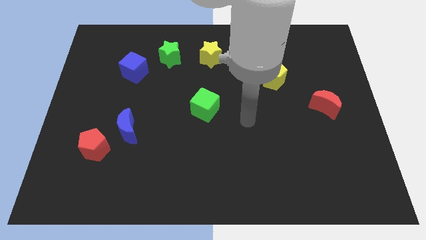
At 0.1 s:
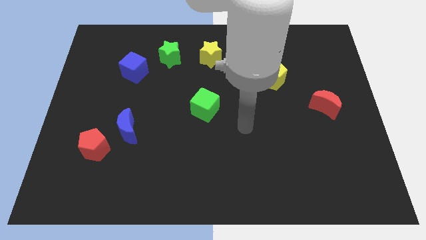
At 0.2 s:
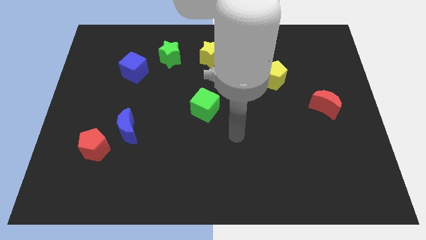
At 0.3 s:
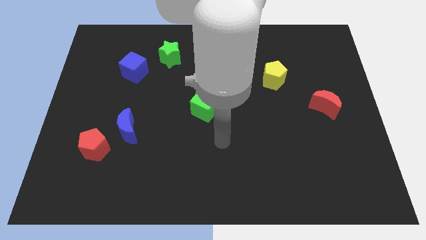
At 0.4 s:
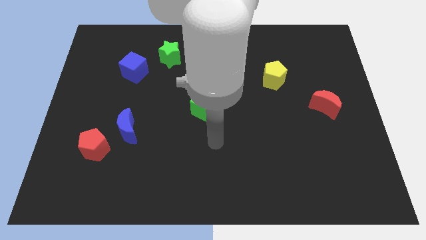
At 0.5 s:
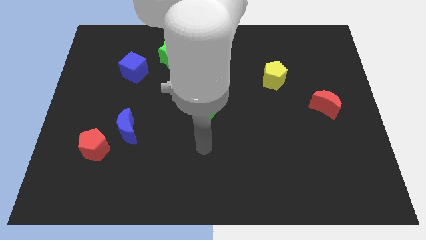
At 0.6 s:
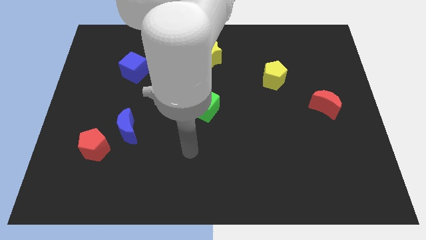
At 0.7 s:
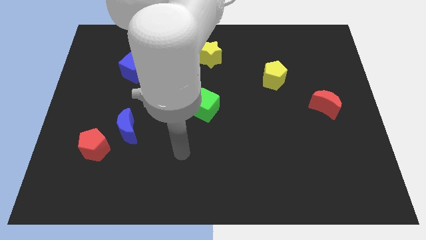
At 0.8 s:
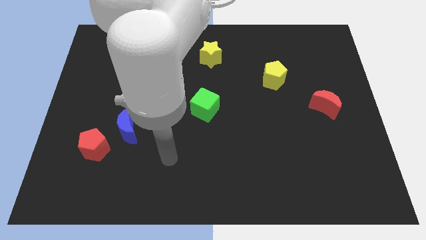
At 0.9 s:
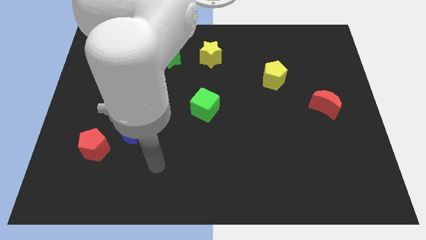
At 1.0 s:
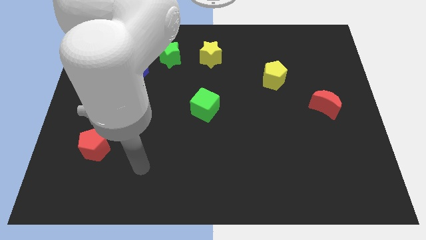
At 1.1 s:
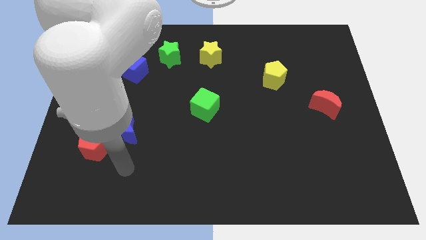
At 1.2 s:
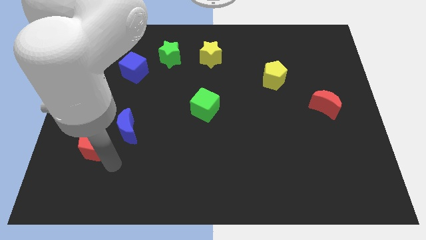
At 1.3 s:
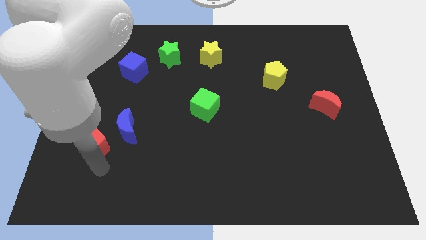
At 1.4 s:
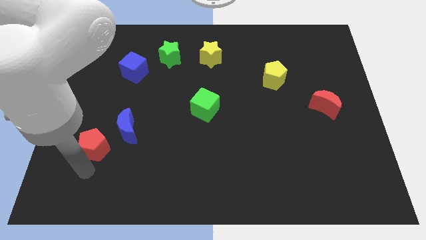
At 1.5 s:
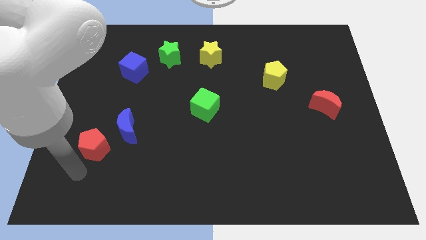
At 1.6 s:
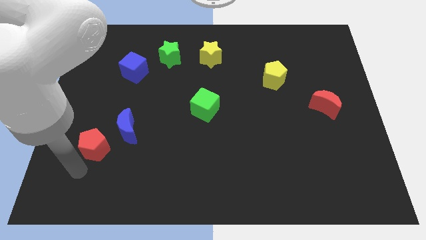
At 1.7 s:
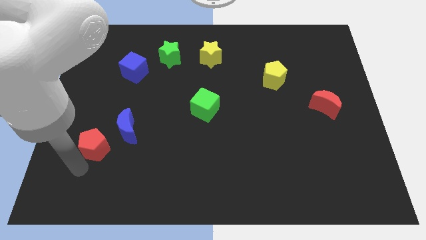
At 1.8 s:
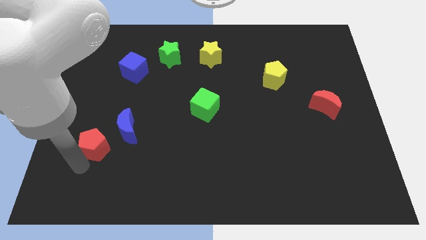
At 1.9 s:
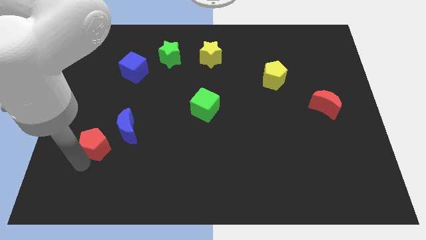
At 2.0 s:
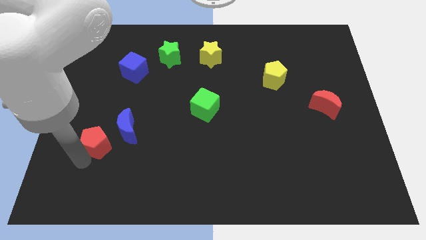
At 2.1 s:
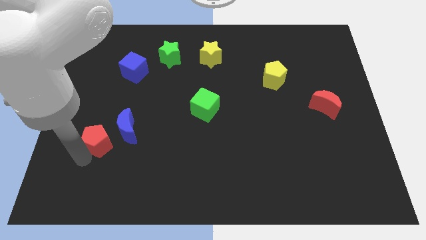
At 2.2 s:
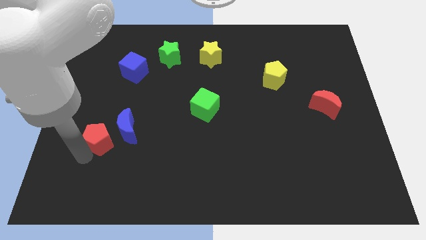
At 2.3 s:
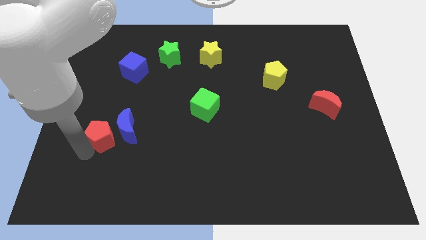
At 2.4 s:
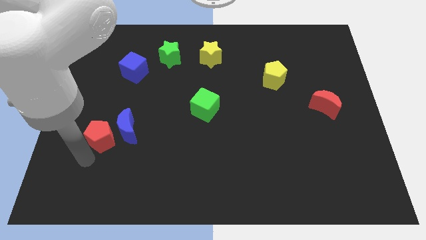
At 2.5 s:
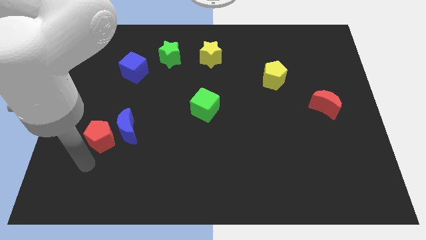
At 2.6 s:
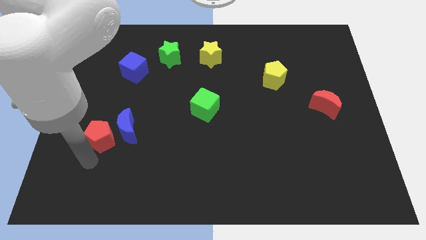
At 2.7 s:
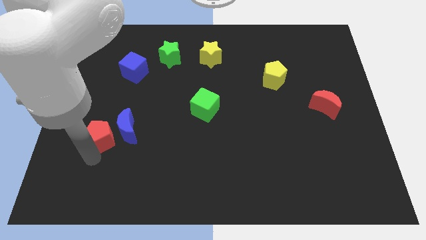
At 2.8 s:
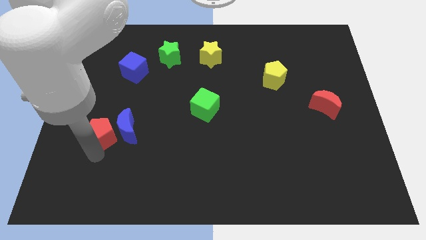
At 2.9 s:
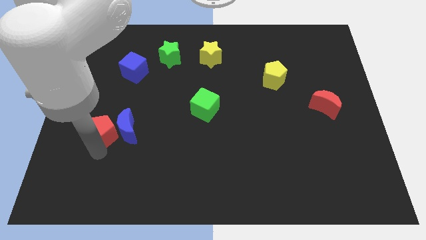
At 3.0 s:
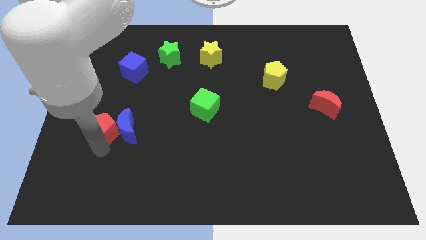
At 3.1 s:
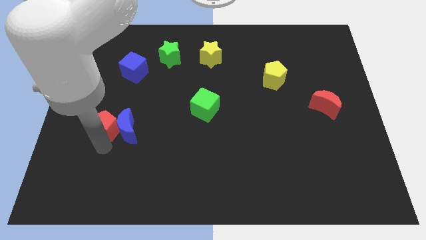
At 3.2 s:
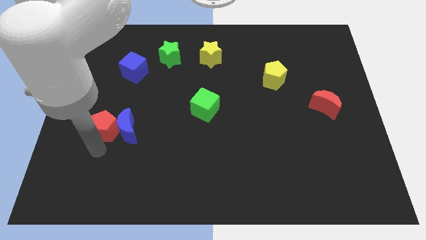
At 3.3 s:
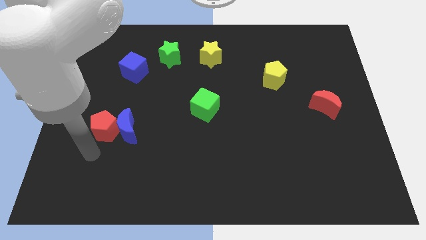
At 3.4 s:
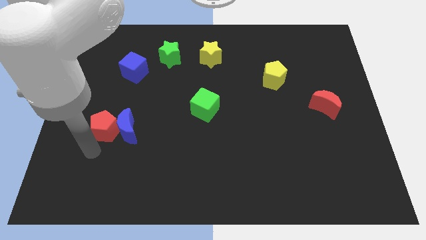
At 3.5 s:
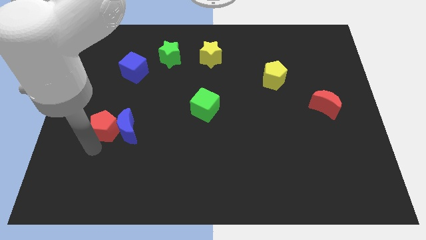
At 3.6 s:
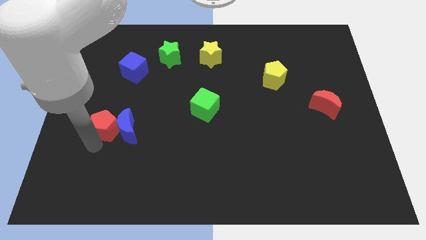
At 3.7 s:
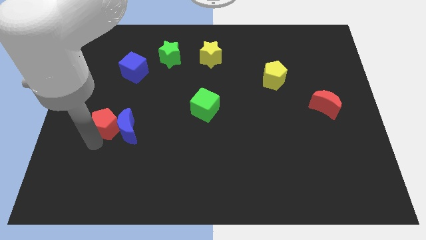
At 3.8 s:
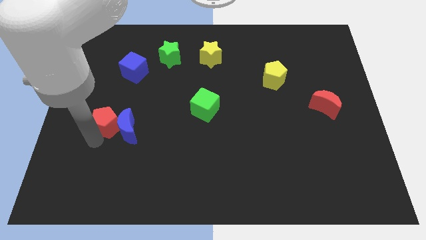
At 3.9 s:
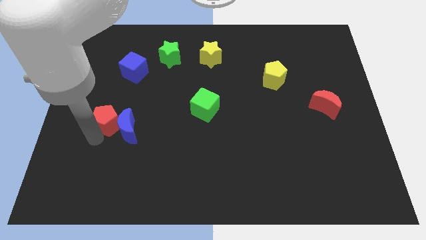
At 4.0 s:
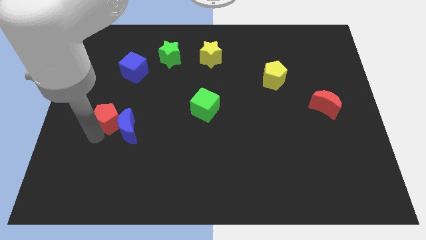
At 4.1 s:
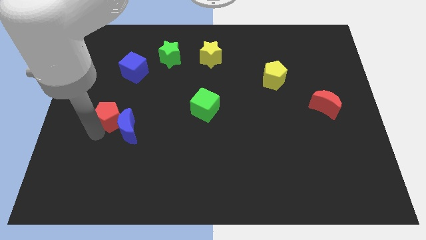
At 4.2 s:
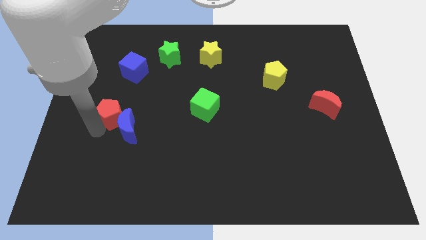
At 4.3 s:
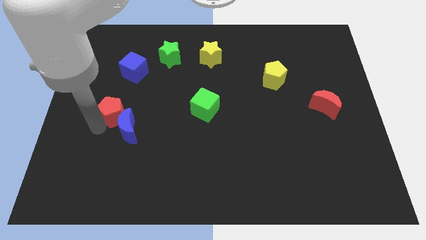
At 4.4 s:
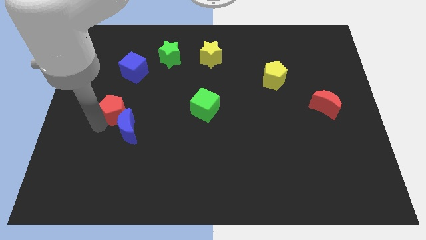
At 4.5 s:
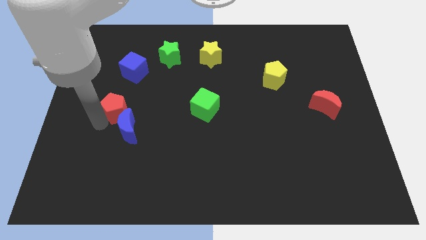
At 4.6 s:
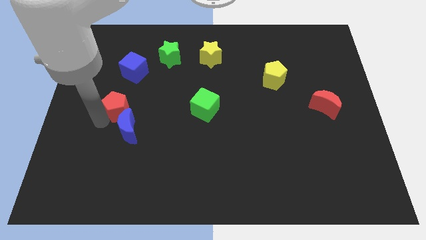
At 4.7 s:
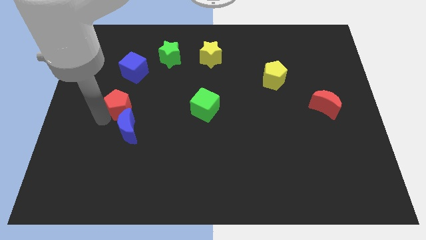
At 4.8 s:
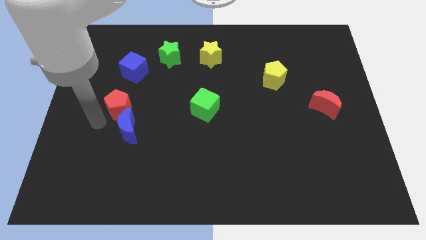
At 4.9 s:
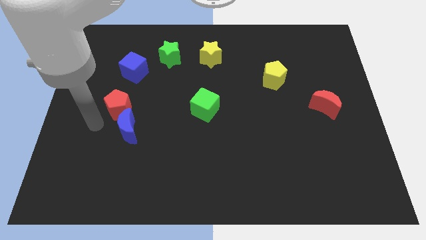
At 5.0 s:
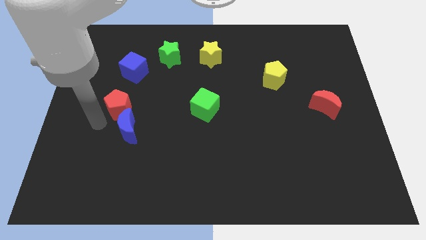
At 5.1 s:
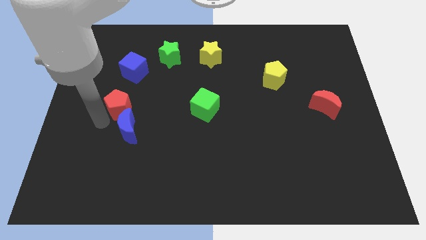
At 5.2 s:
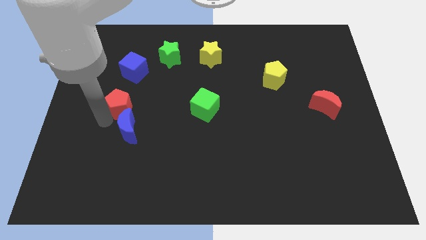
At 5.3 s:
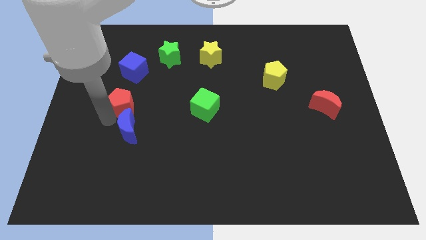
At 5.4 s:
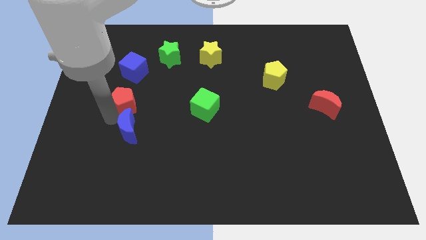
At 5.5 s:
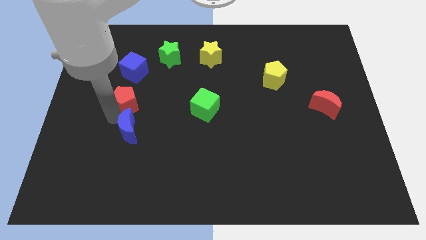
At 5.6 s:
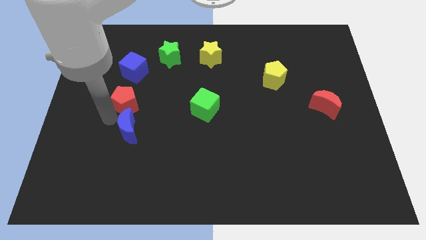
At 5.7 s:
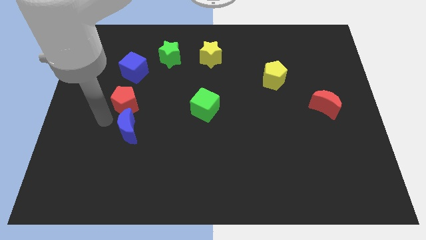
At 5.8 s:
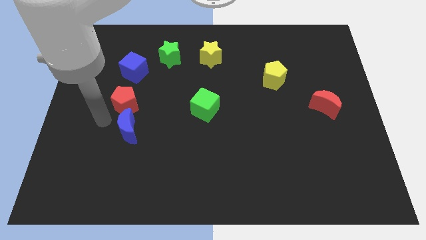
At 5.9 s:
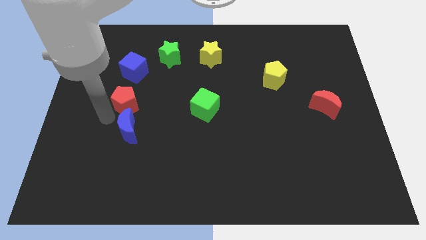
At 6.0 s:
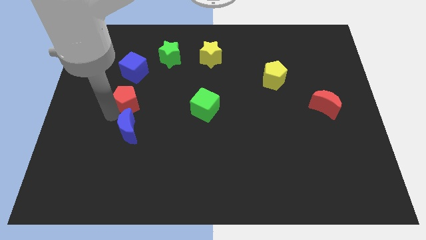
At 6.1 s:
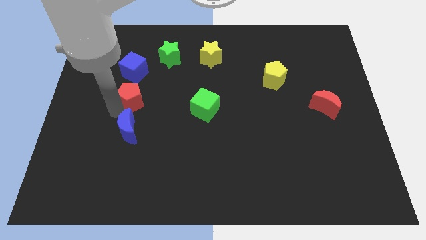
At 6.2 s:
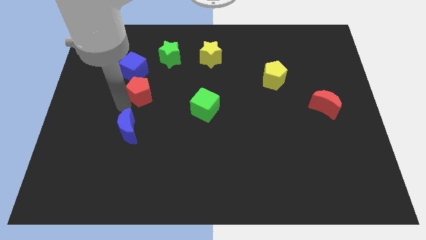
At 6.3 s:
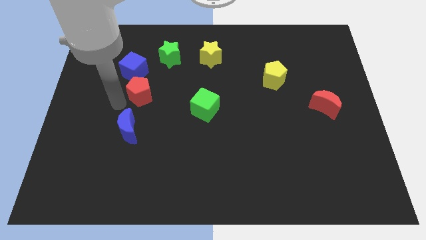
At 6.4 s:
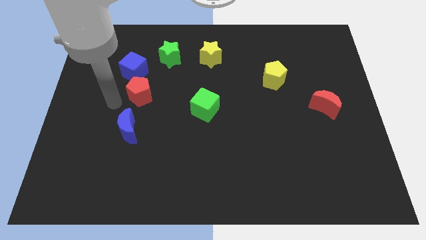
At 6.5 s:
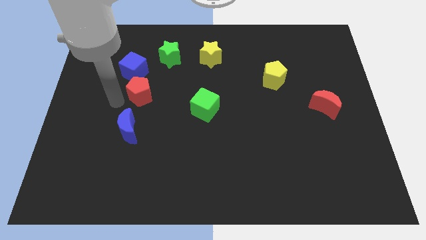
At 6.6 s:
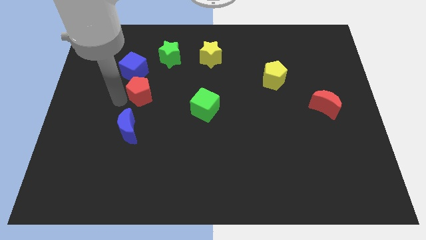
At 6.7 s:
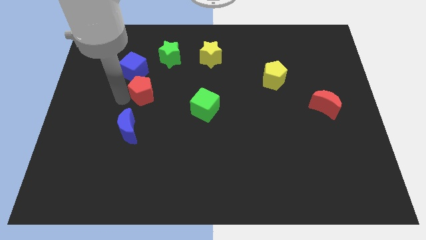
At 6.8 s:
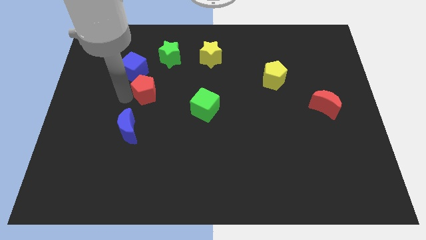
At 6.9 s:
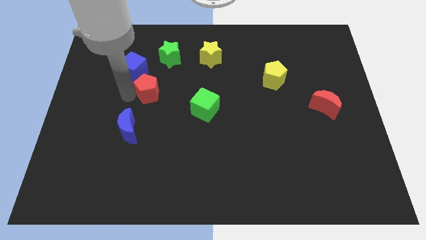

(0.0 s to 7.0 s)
move the red pentagon to the bottom side of the green star
